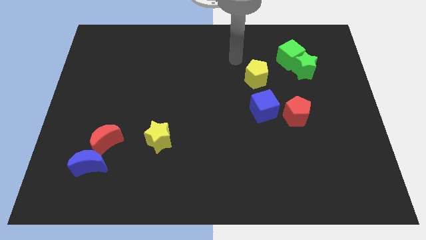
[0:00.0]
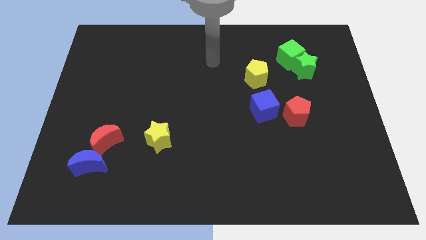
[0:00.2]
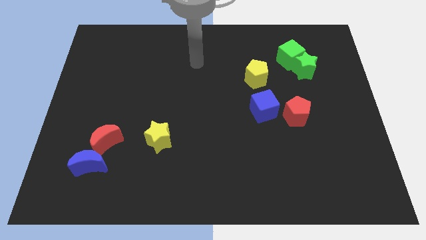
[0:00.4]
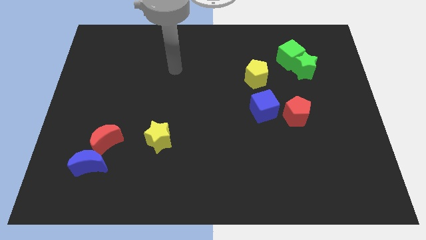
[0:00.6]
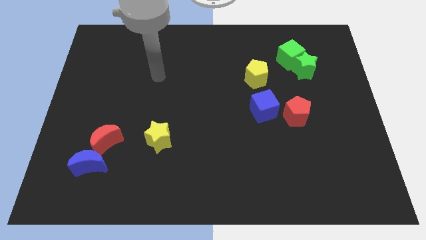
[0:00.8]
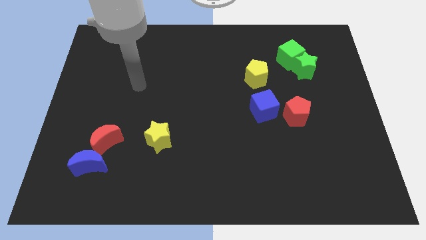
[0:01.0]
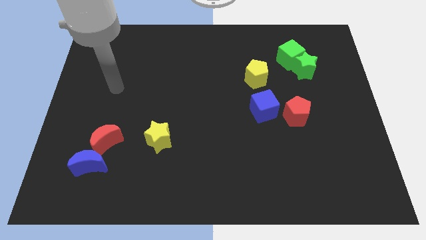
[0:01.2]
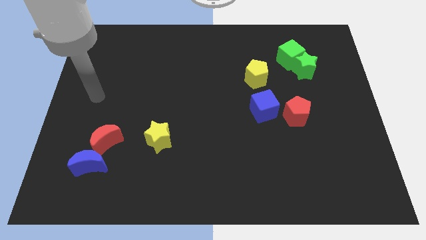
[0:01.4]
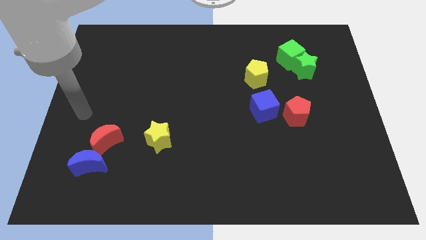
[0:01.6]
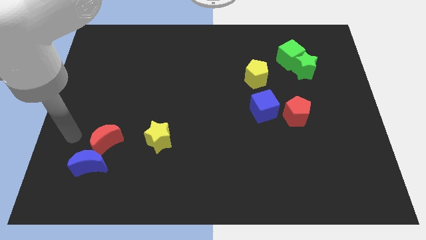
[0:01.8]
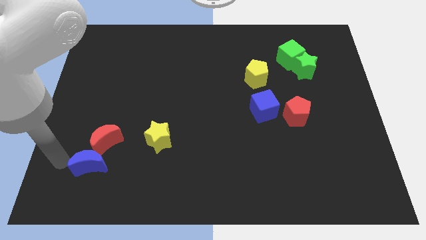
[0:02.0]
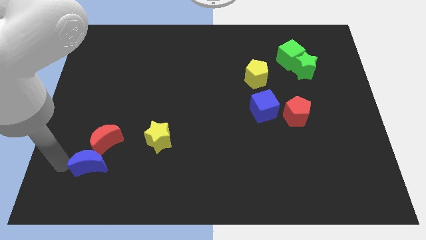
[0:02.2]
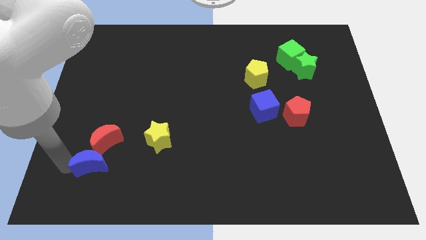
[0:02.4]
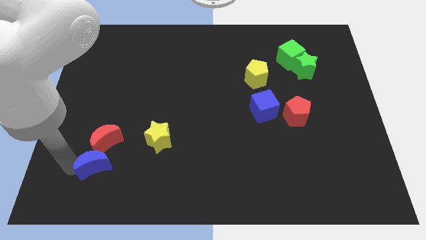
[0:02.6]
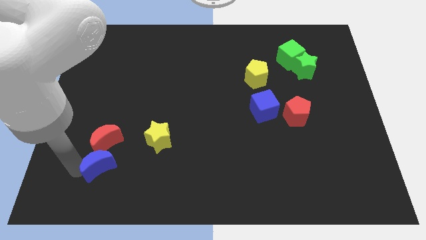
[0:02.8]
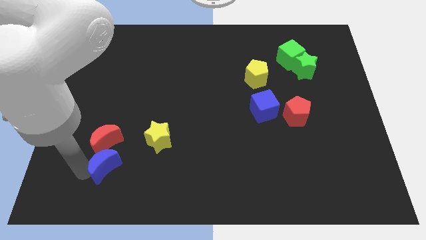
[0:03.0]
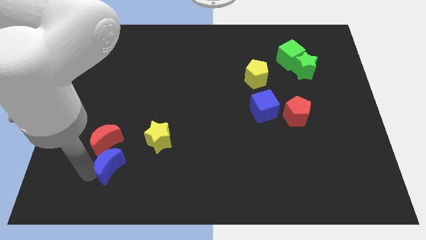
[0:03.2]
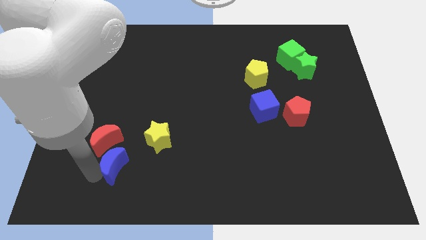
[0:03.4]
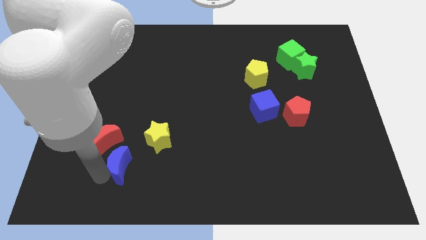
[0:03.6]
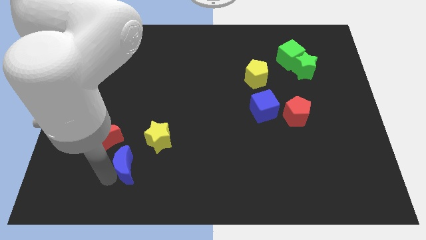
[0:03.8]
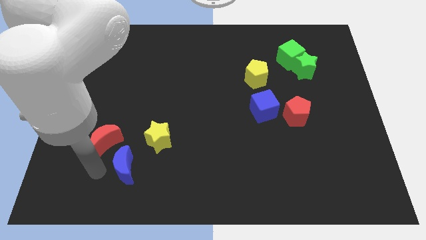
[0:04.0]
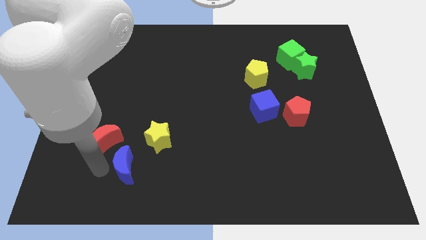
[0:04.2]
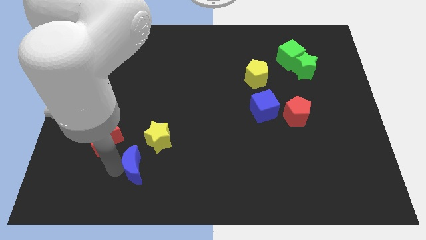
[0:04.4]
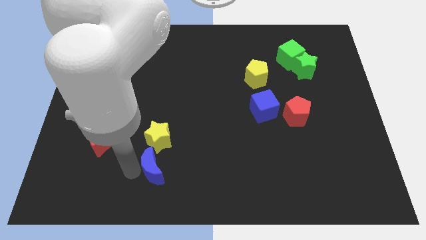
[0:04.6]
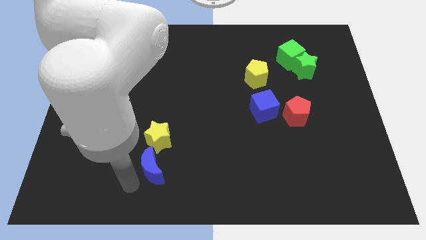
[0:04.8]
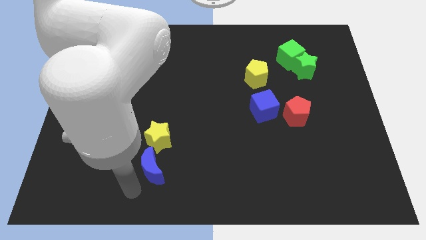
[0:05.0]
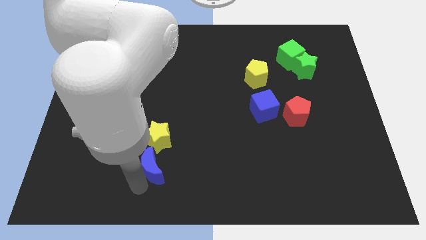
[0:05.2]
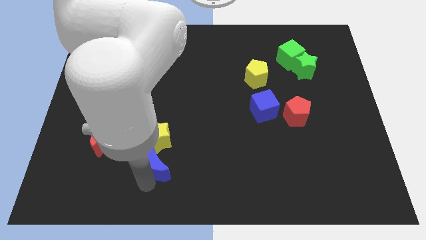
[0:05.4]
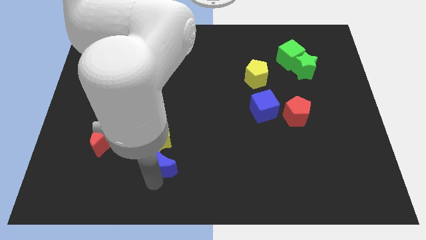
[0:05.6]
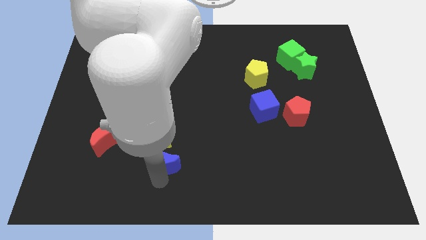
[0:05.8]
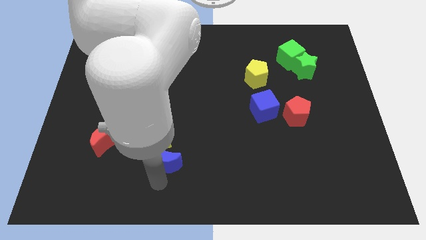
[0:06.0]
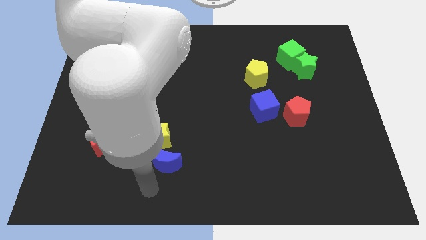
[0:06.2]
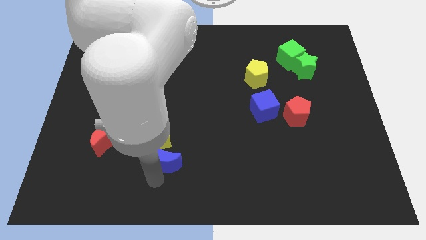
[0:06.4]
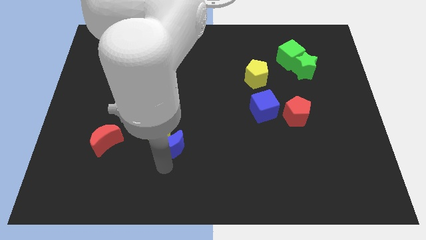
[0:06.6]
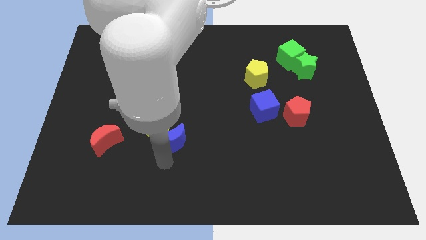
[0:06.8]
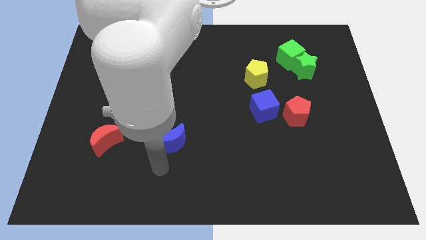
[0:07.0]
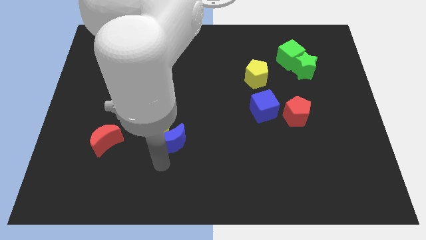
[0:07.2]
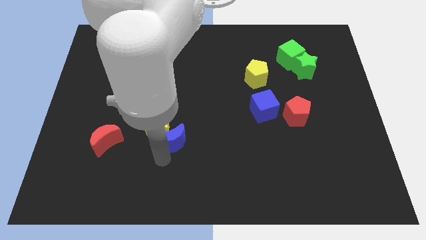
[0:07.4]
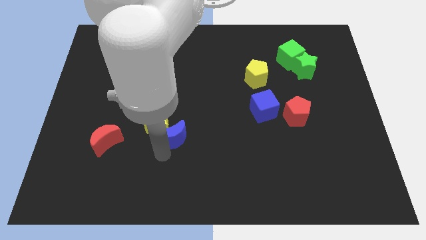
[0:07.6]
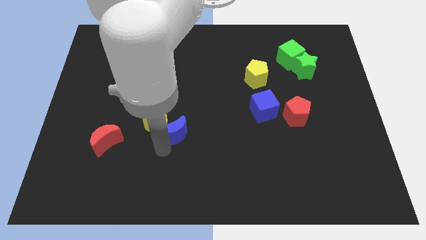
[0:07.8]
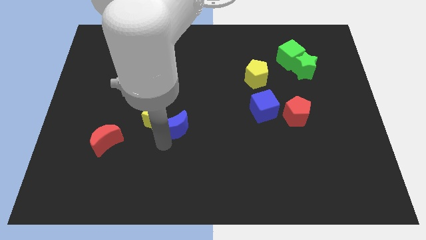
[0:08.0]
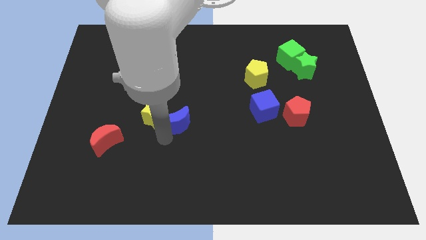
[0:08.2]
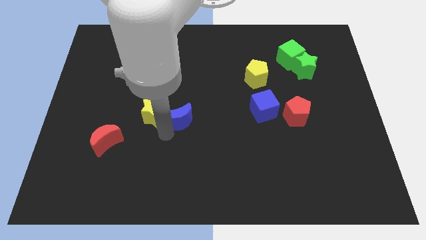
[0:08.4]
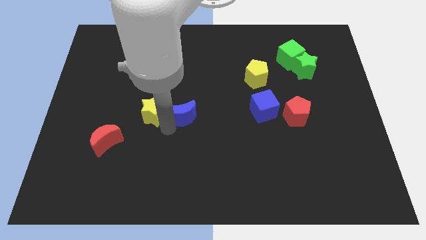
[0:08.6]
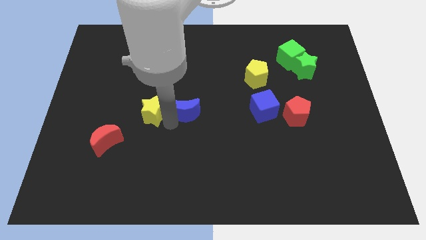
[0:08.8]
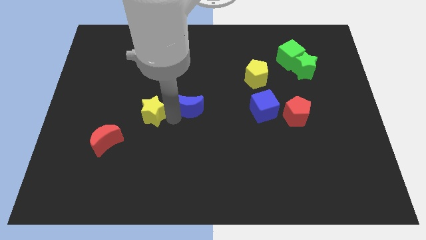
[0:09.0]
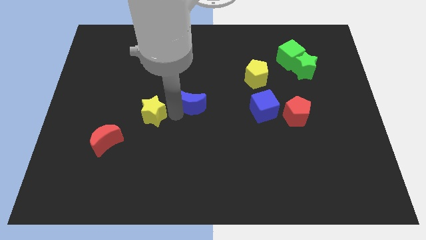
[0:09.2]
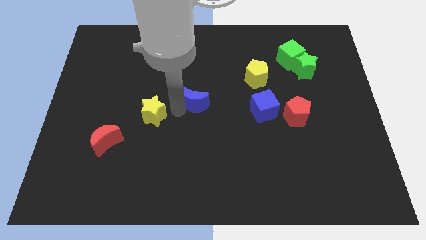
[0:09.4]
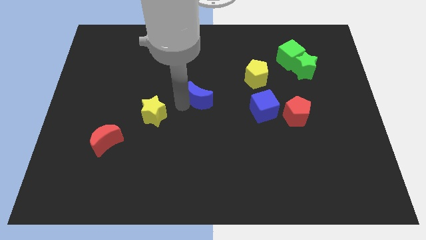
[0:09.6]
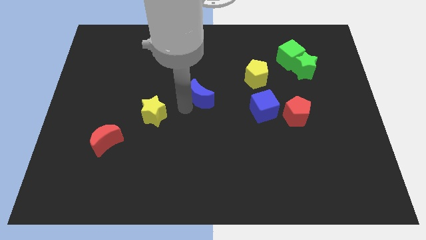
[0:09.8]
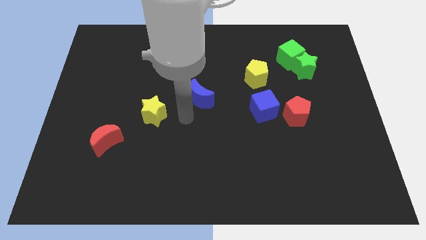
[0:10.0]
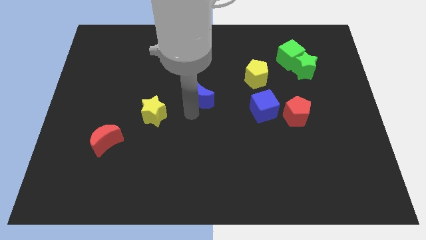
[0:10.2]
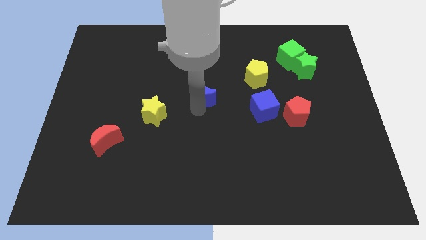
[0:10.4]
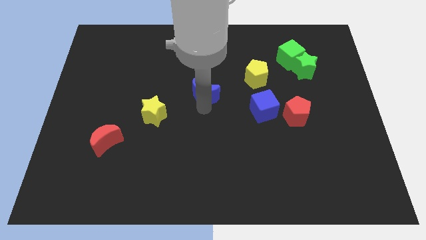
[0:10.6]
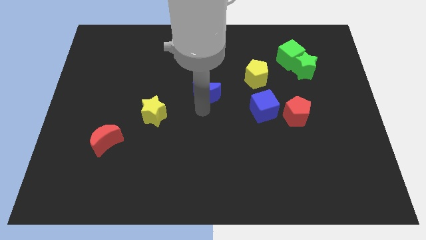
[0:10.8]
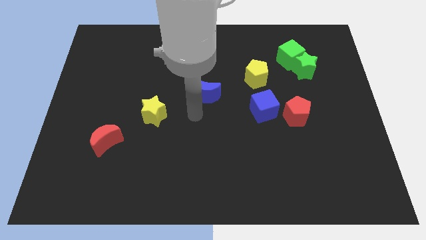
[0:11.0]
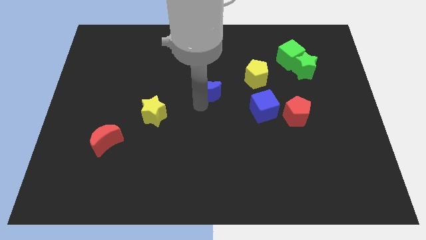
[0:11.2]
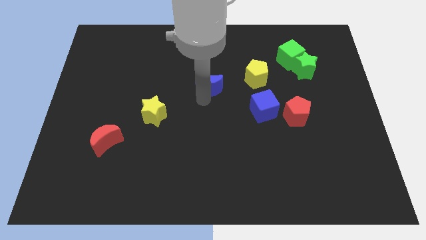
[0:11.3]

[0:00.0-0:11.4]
push the blue moon to the left of the yellow pentagon

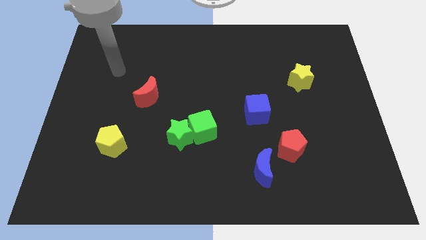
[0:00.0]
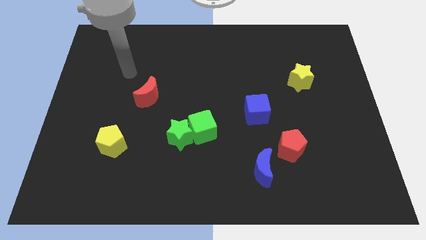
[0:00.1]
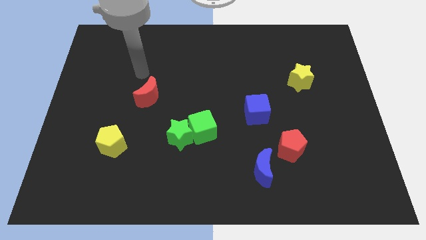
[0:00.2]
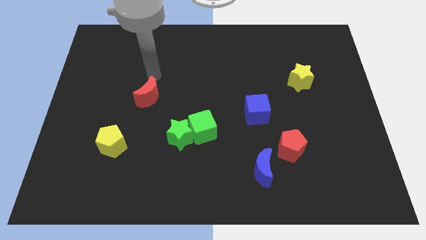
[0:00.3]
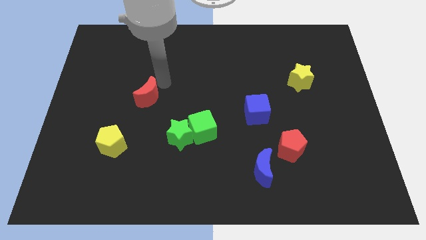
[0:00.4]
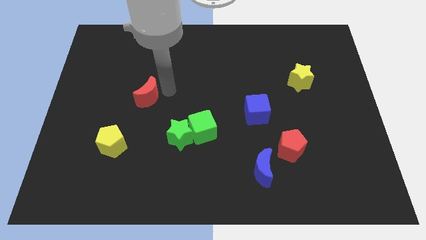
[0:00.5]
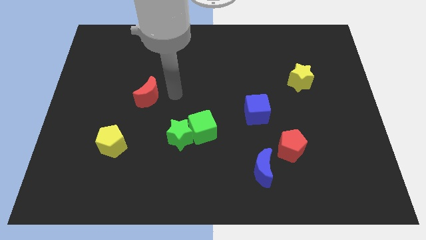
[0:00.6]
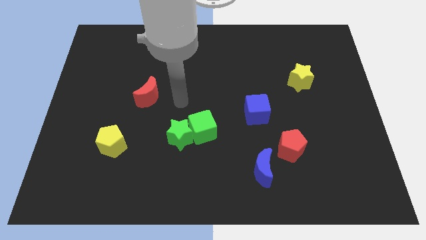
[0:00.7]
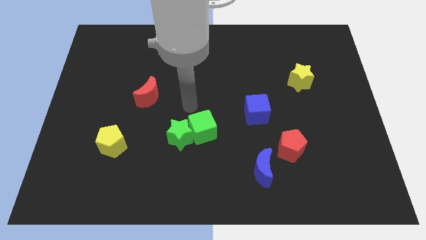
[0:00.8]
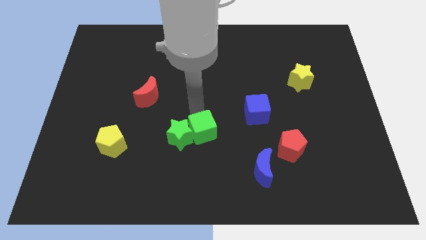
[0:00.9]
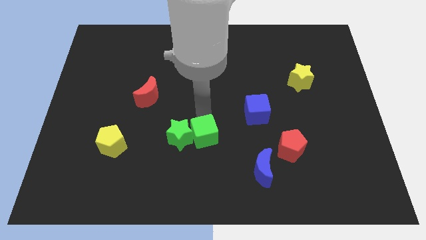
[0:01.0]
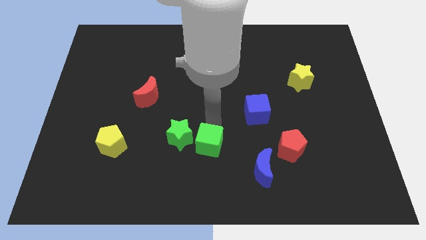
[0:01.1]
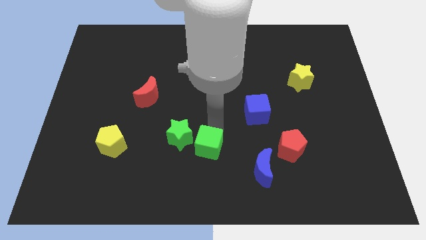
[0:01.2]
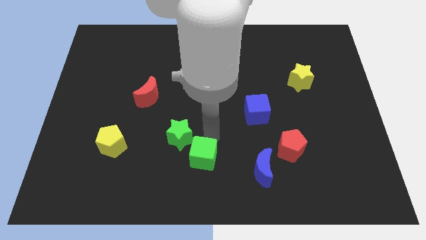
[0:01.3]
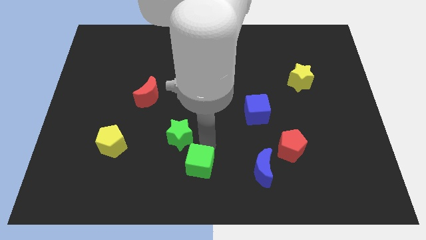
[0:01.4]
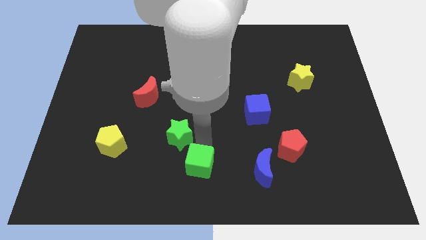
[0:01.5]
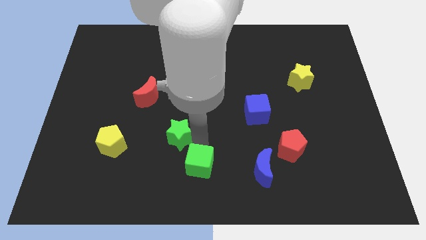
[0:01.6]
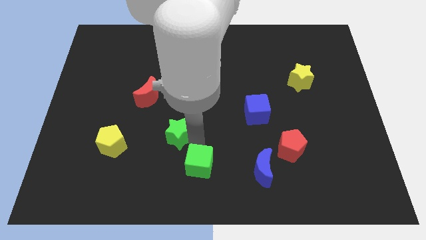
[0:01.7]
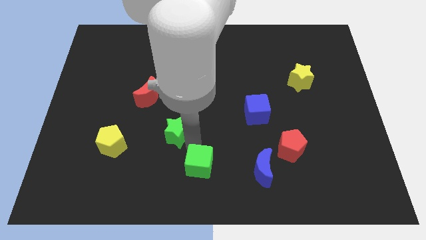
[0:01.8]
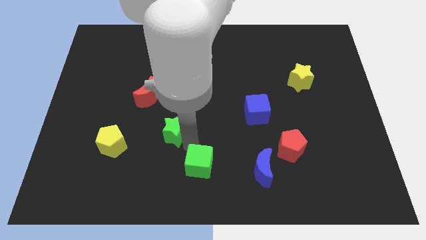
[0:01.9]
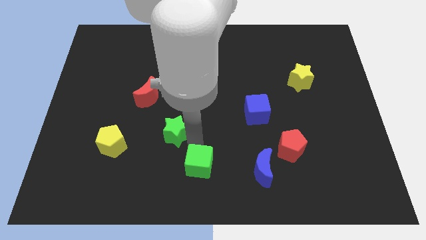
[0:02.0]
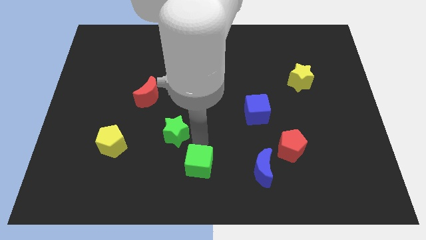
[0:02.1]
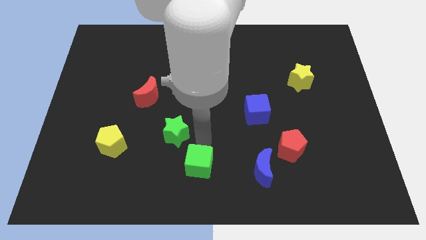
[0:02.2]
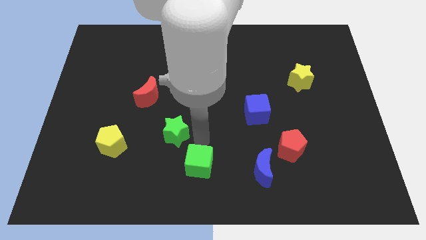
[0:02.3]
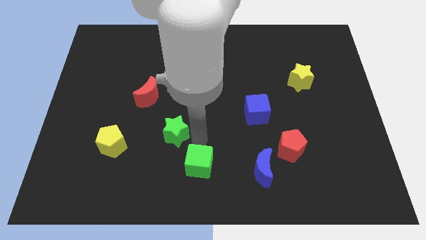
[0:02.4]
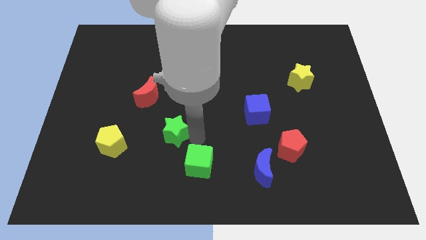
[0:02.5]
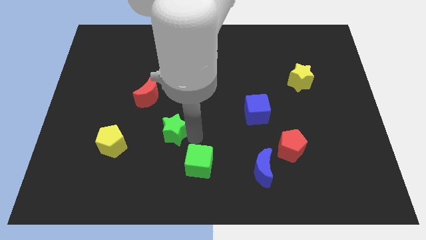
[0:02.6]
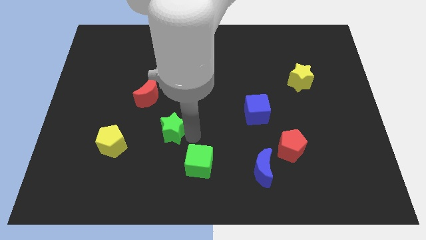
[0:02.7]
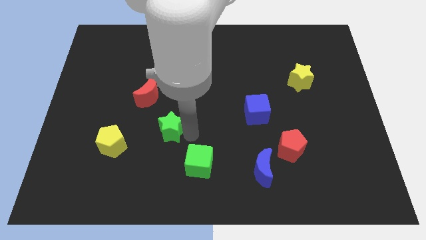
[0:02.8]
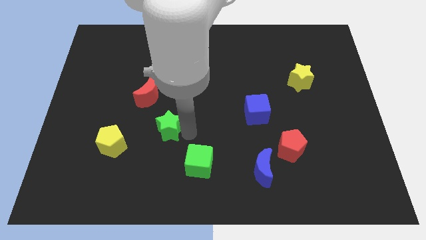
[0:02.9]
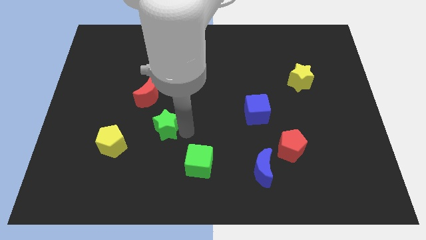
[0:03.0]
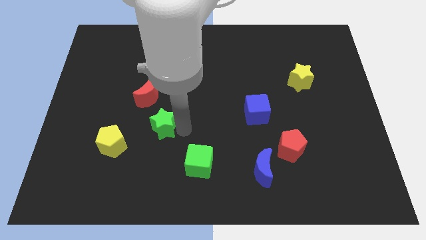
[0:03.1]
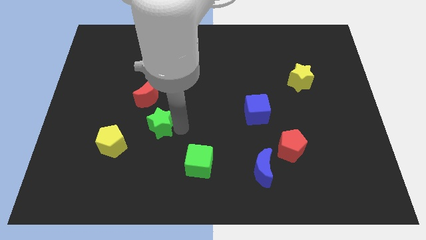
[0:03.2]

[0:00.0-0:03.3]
slide the green star to the top right of the yellow pentagon
